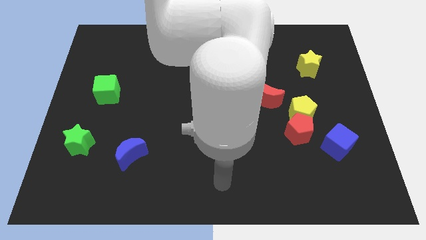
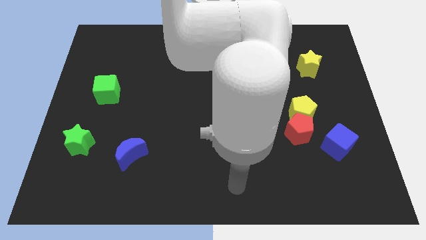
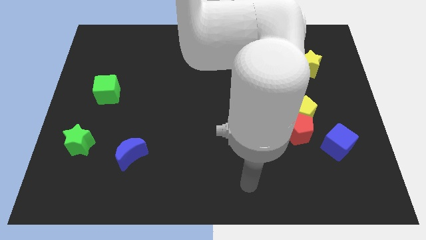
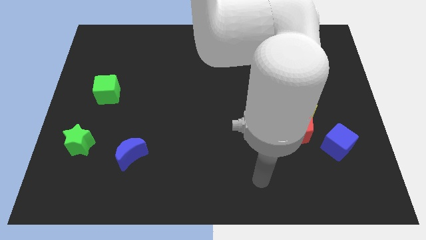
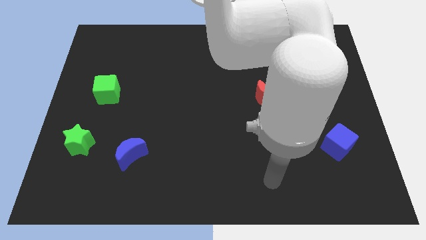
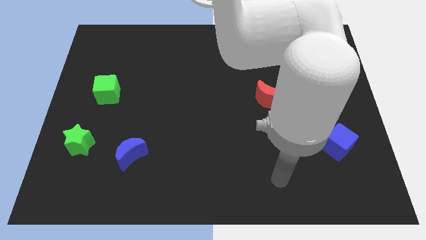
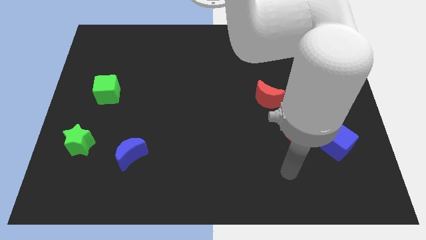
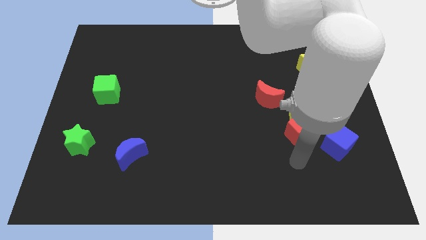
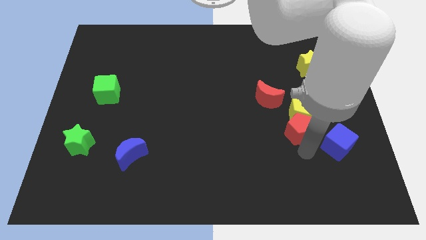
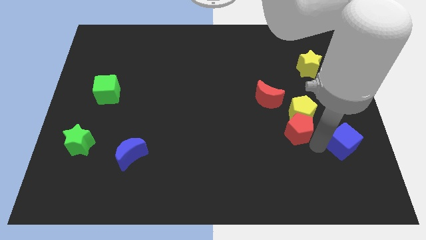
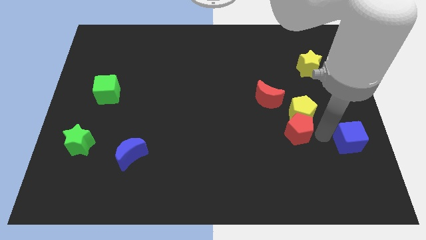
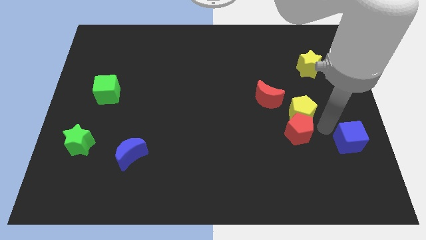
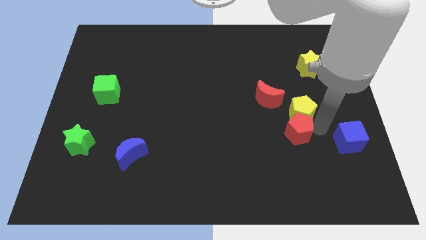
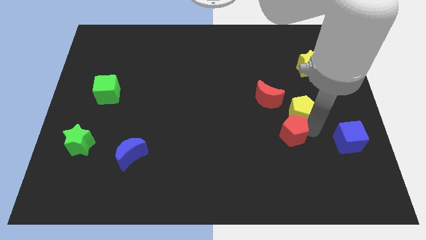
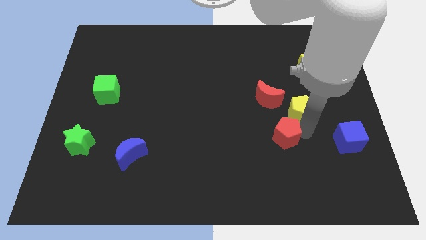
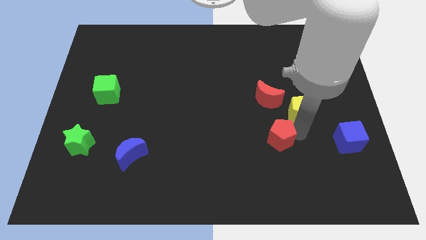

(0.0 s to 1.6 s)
move the red pentagon away from the yellow pentagon and blue cube

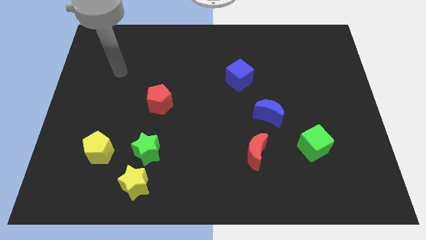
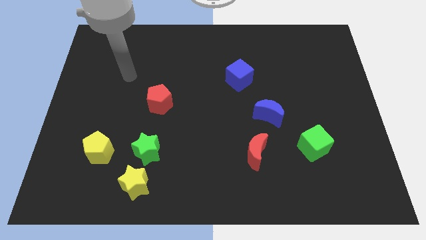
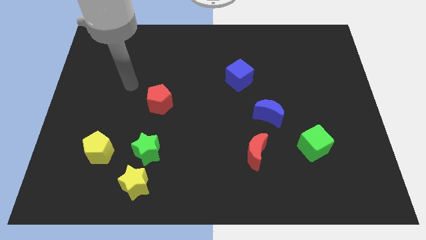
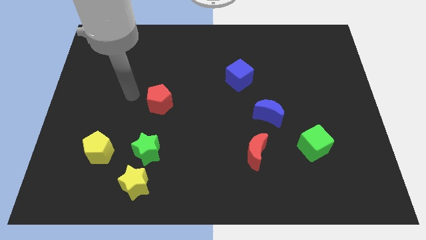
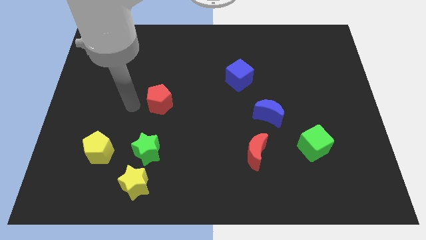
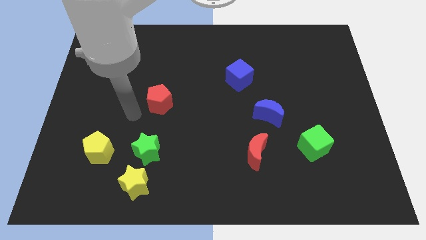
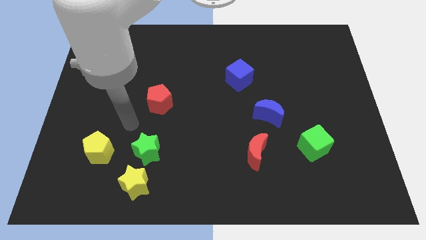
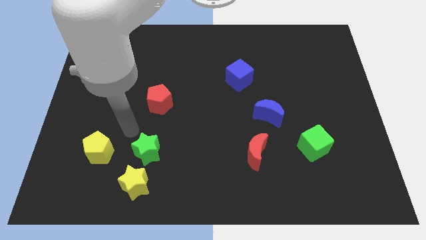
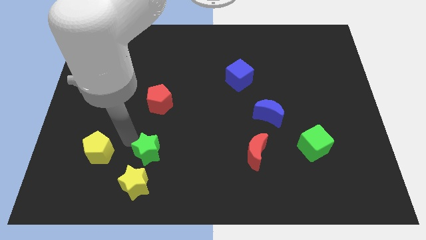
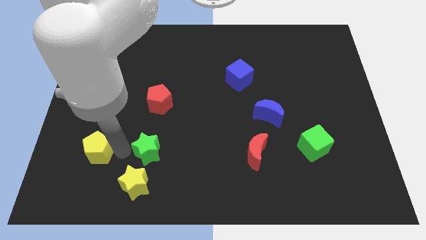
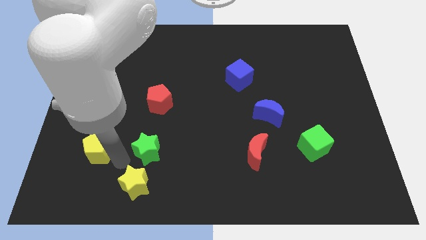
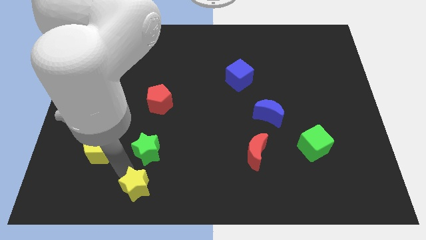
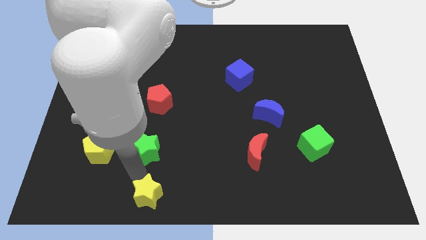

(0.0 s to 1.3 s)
move the green star away from the yellow star

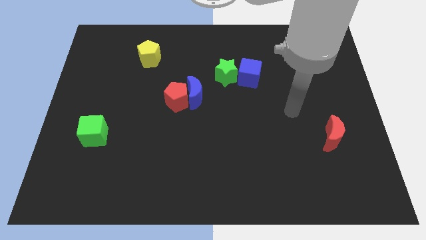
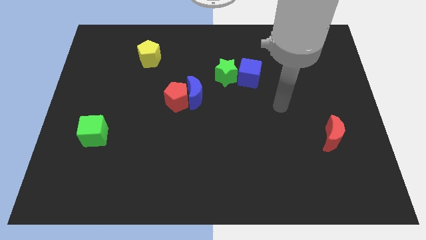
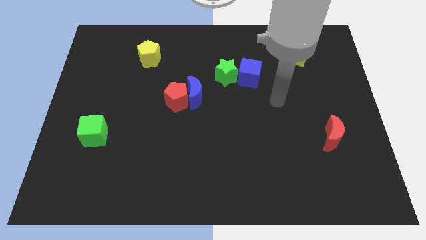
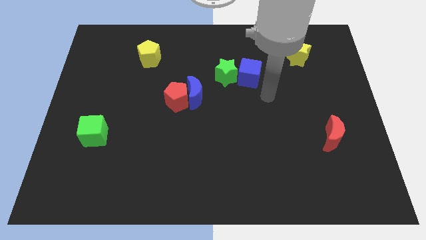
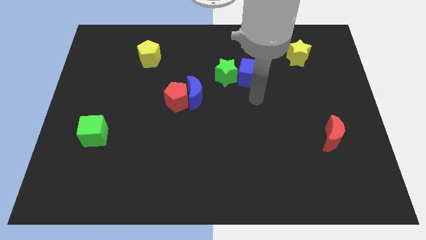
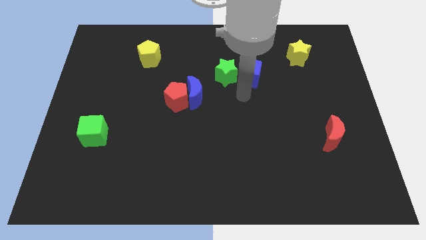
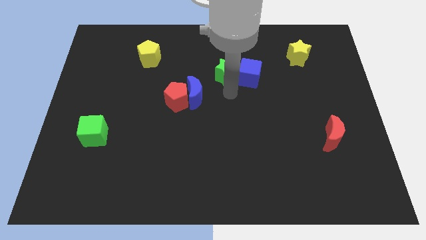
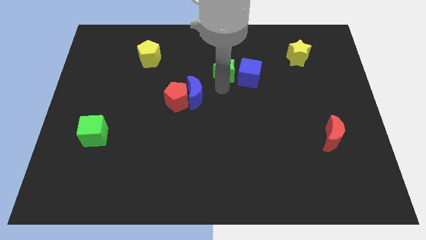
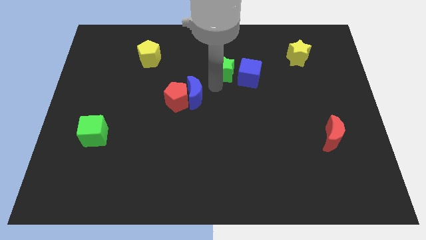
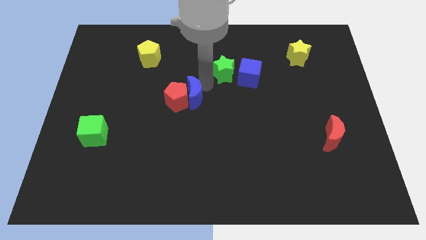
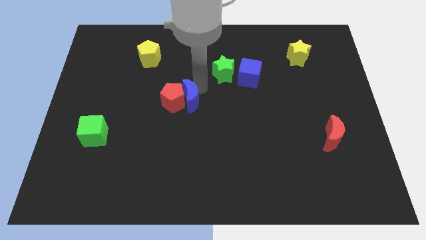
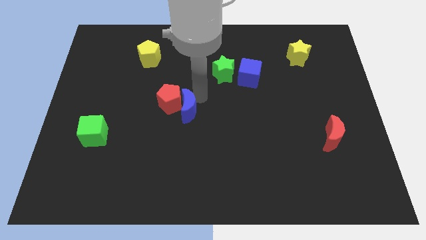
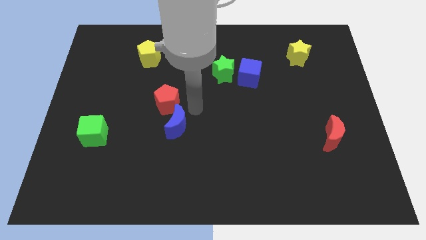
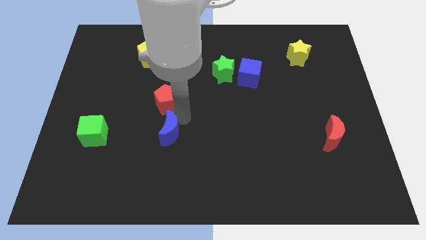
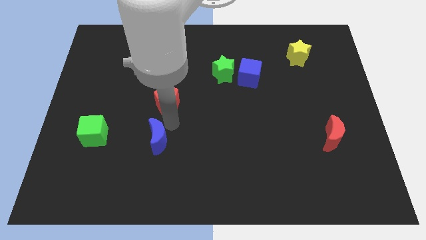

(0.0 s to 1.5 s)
separate the red pentagon from the blue moon

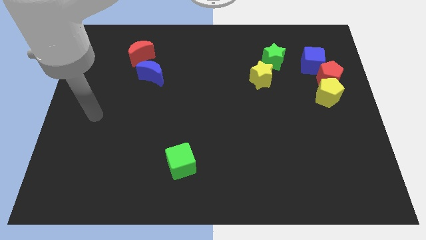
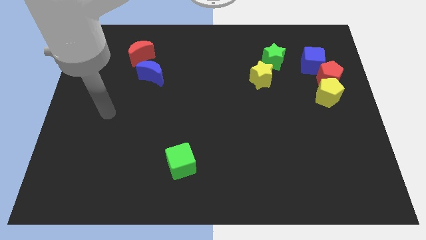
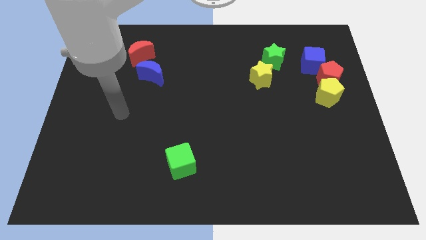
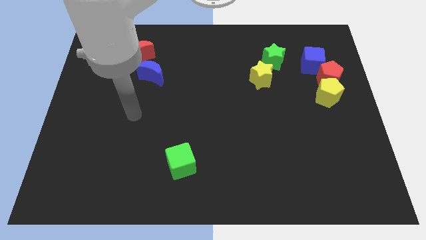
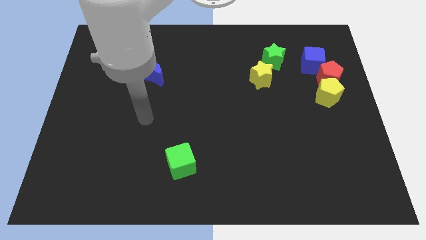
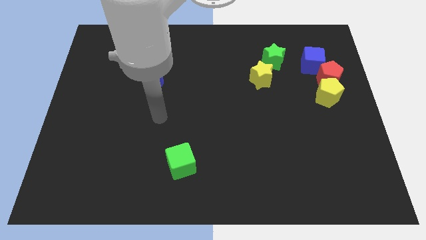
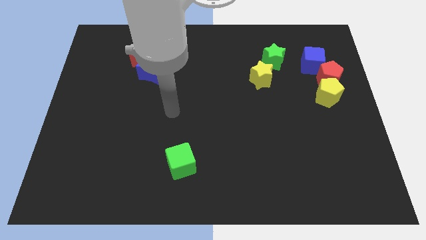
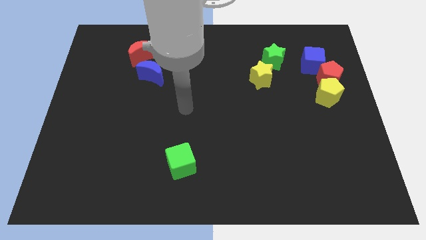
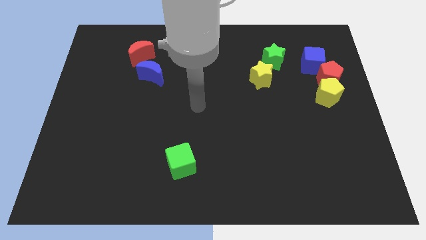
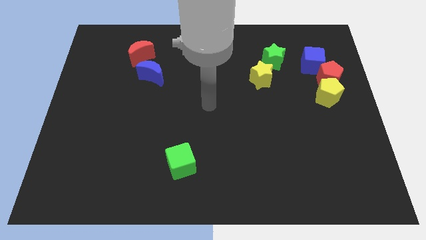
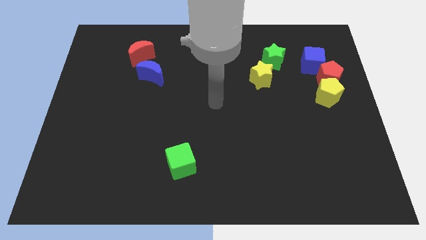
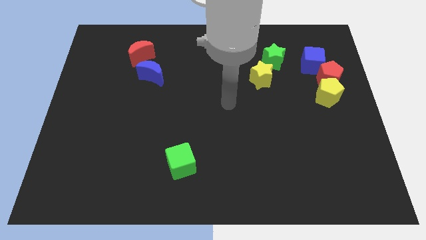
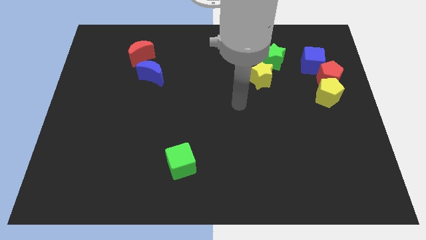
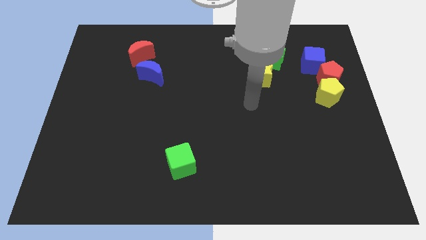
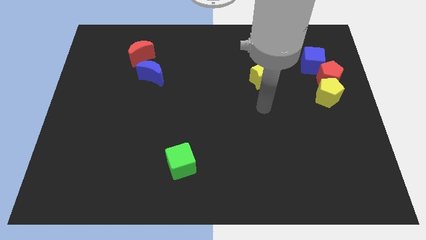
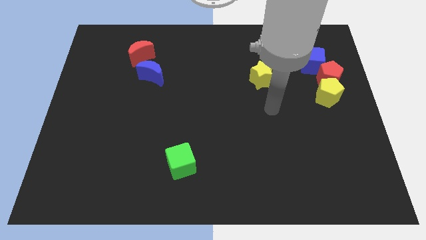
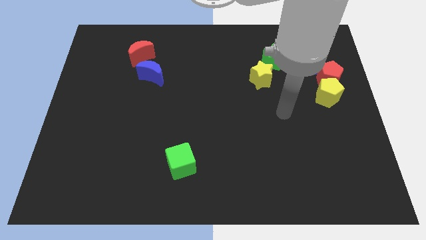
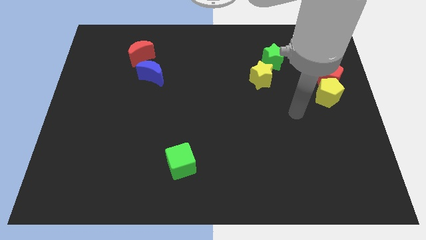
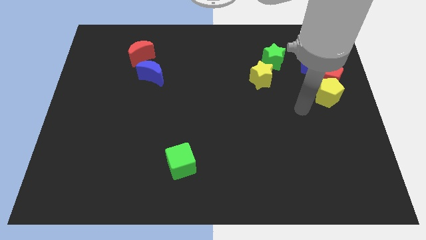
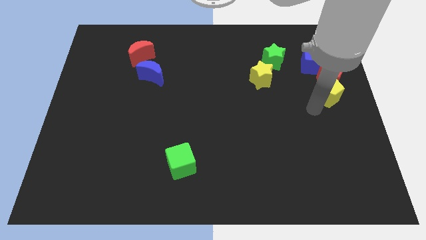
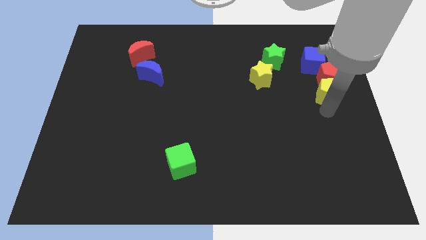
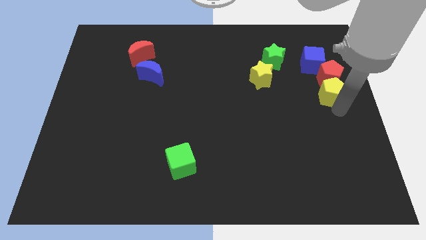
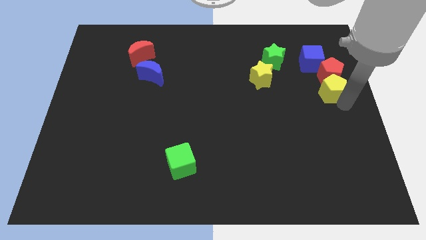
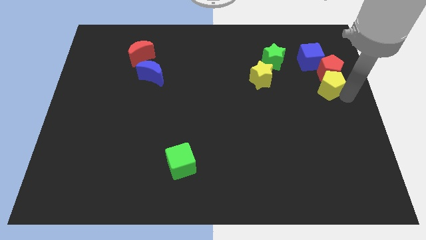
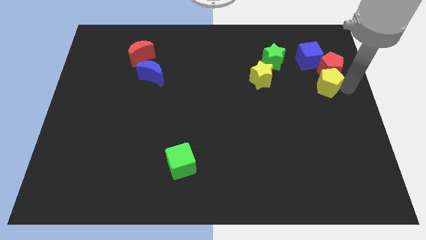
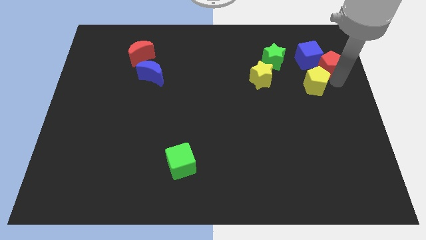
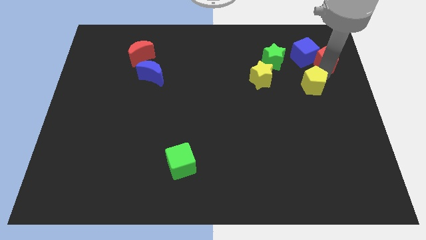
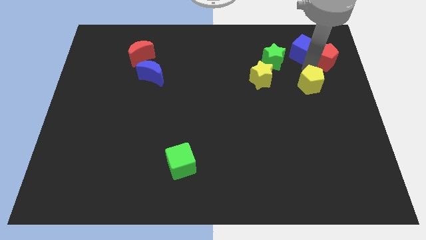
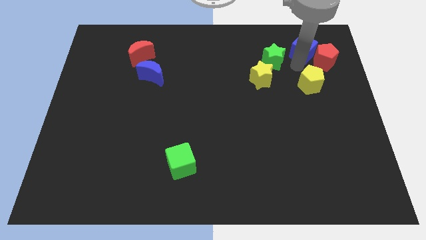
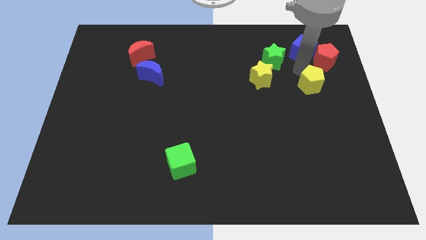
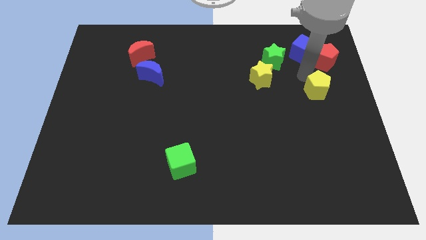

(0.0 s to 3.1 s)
pull the yellow pentagon apart from the red pentagon

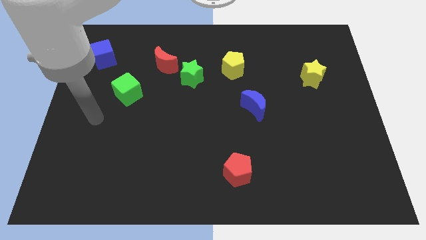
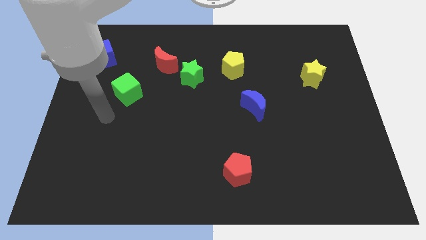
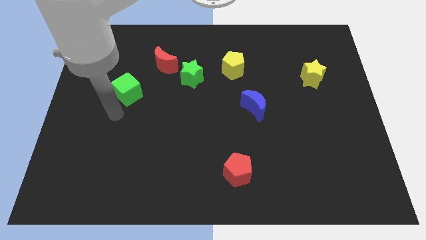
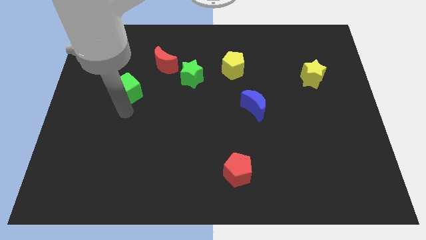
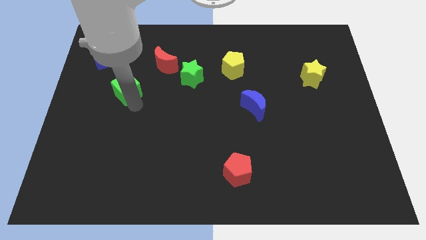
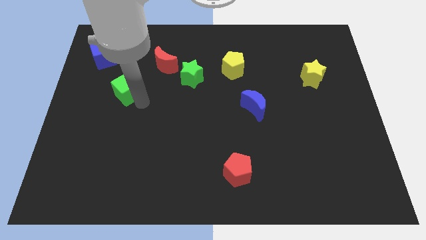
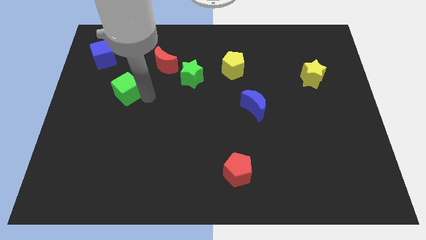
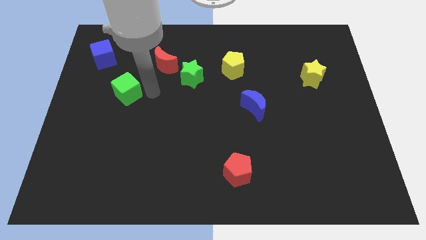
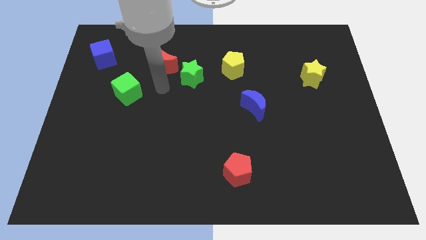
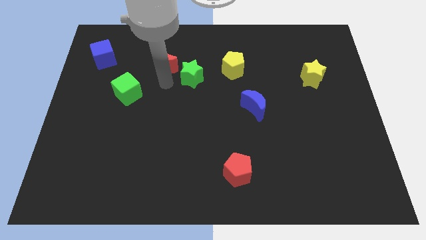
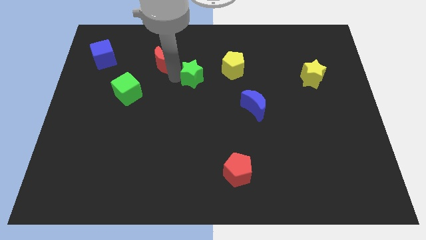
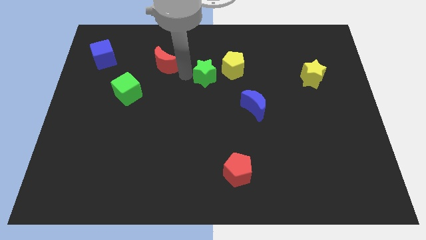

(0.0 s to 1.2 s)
pull the red moon apart from the green star

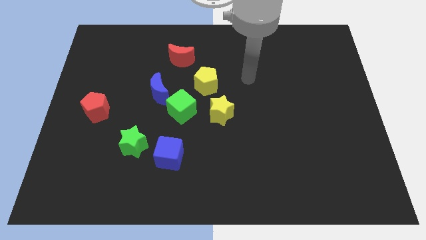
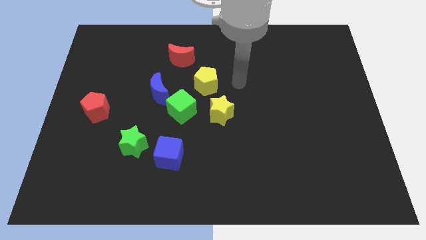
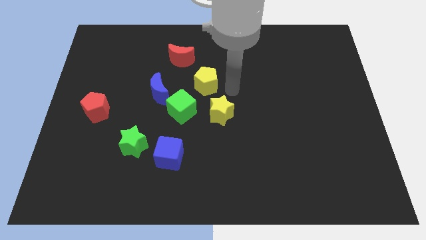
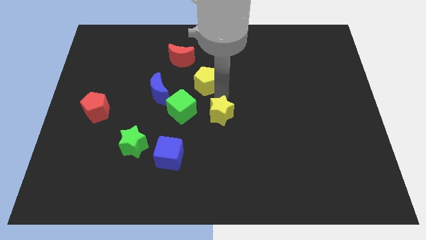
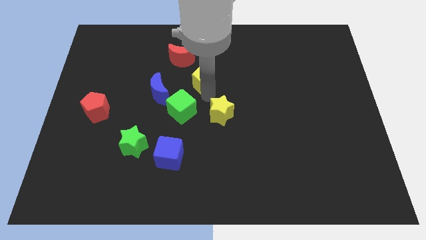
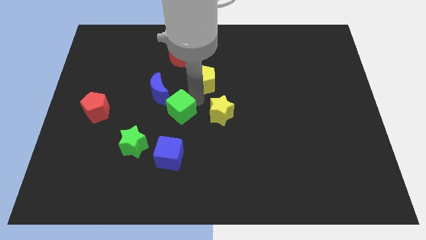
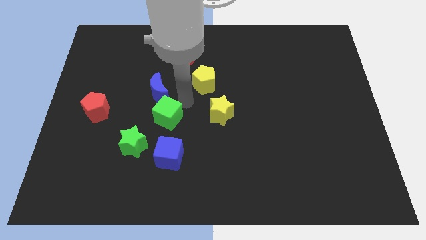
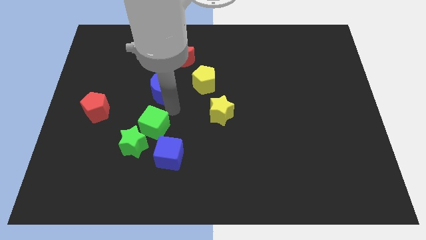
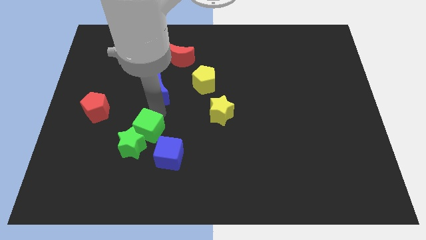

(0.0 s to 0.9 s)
separate the blue moon from the green cube
